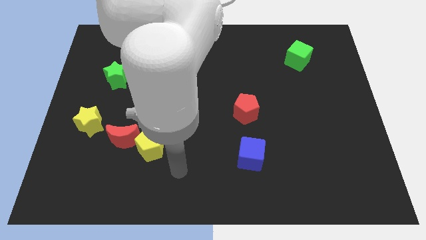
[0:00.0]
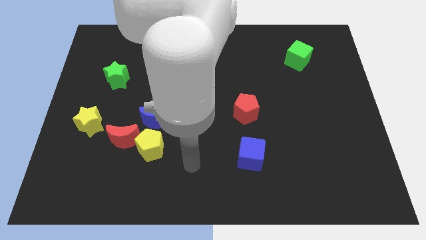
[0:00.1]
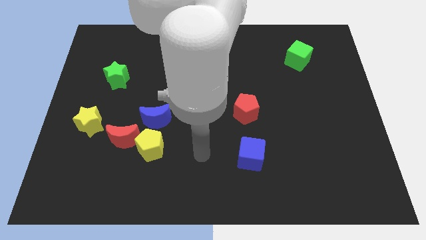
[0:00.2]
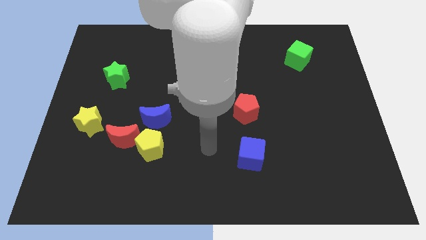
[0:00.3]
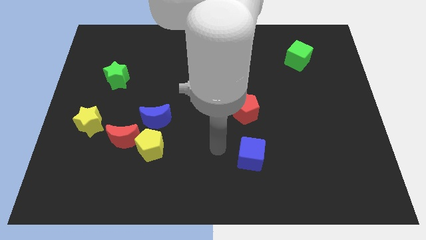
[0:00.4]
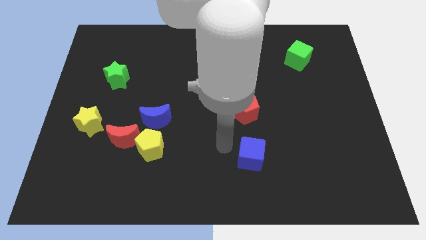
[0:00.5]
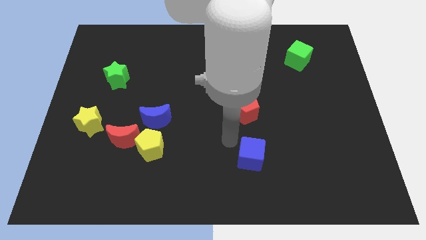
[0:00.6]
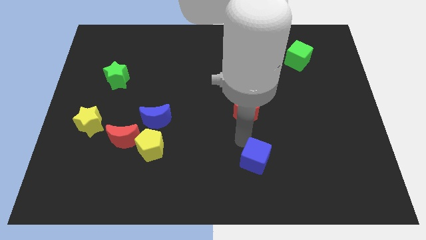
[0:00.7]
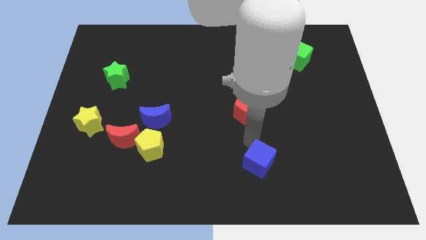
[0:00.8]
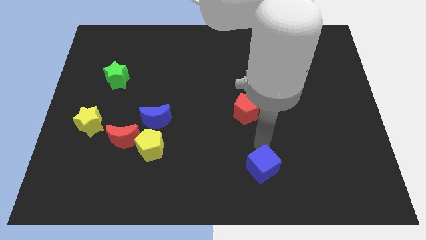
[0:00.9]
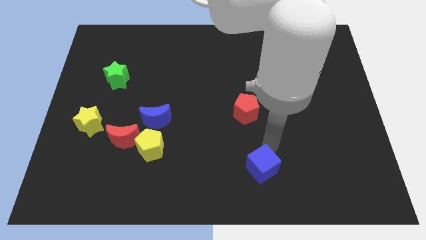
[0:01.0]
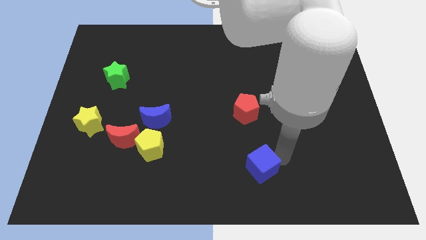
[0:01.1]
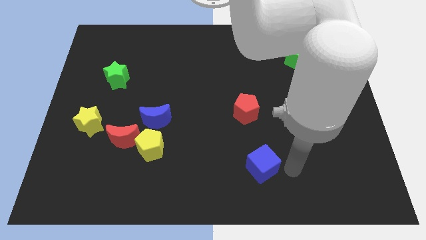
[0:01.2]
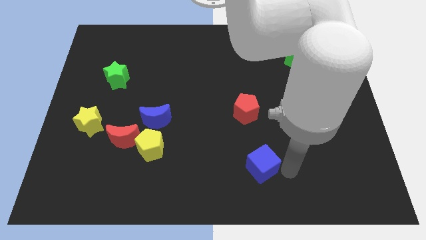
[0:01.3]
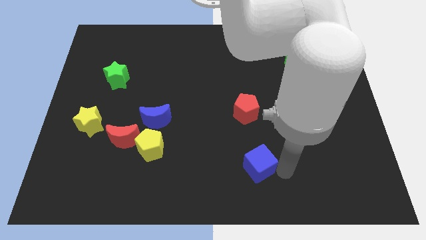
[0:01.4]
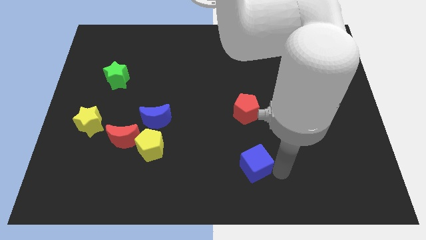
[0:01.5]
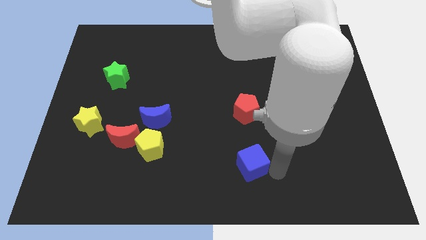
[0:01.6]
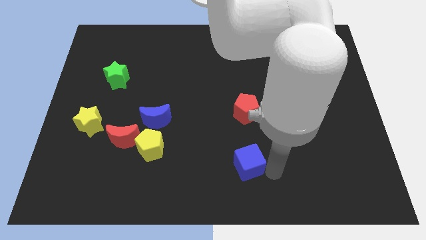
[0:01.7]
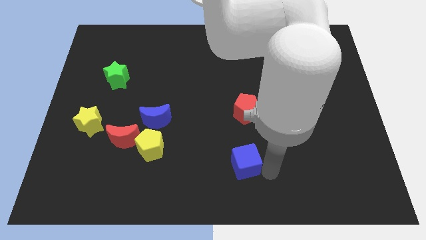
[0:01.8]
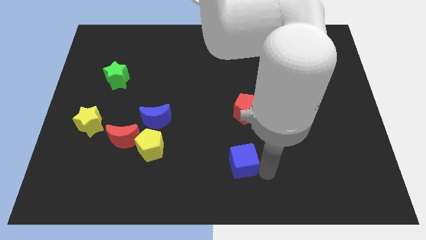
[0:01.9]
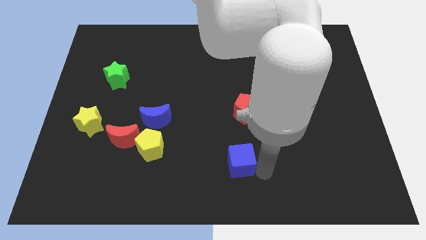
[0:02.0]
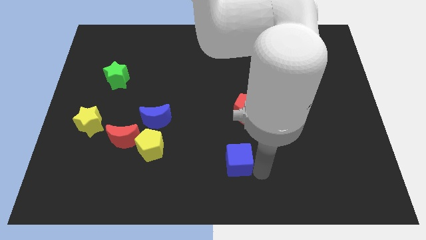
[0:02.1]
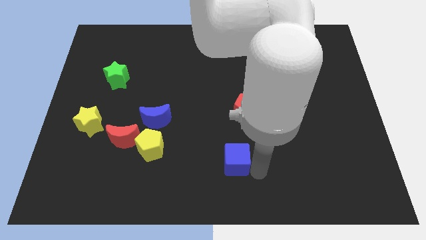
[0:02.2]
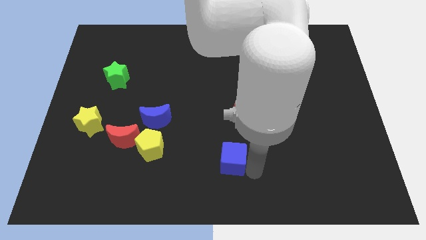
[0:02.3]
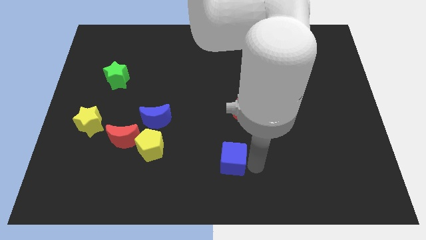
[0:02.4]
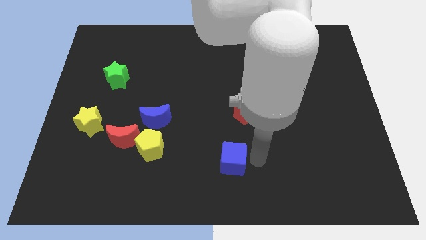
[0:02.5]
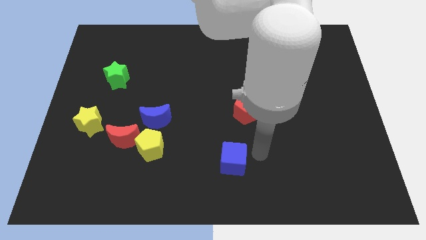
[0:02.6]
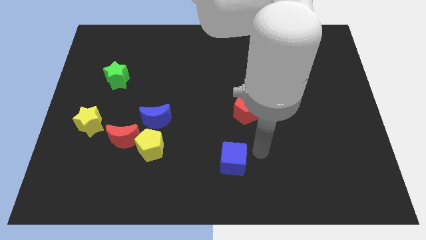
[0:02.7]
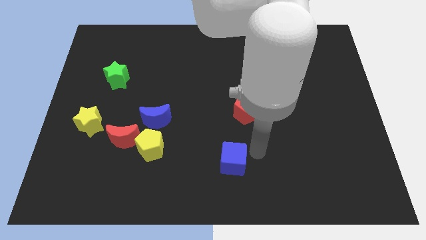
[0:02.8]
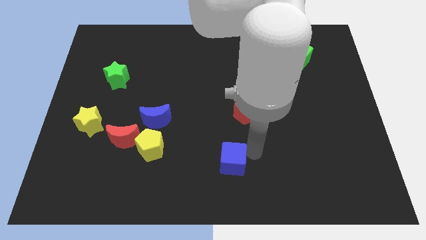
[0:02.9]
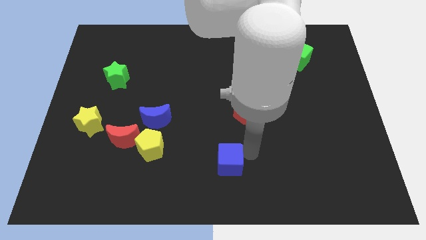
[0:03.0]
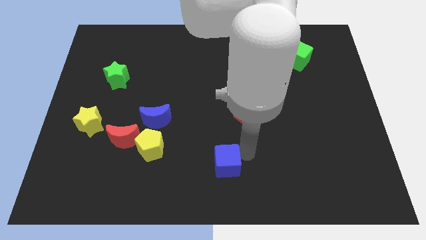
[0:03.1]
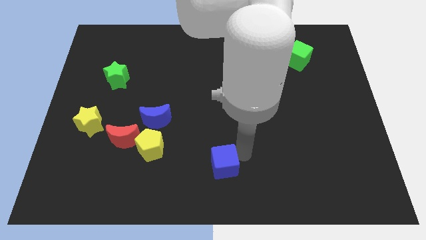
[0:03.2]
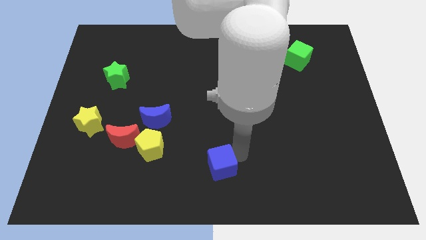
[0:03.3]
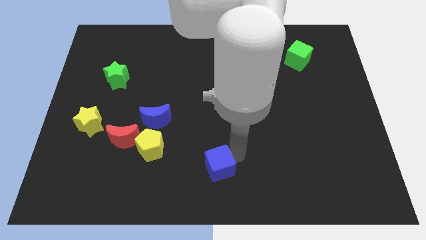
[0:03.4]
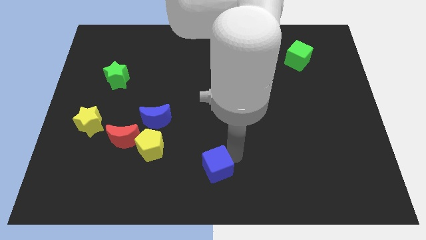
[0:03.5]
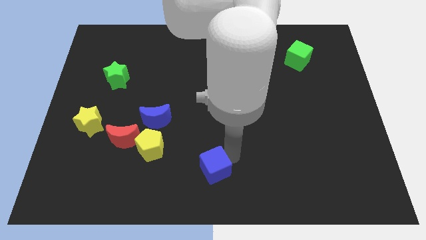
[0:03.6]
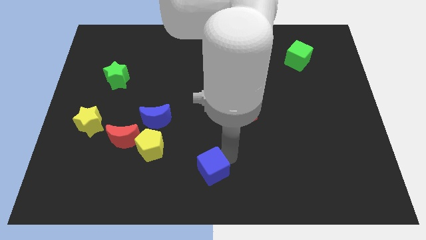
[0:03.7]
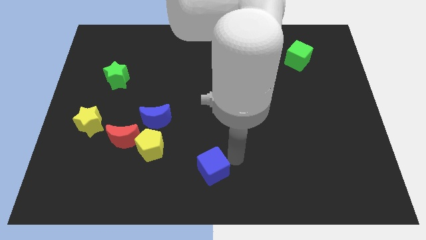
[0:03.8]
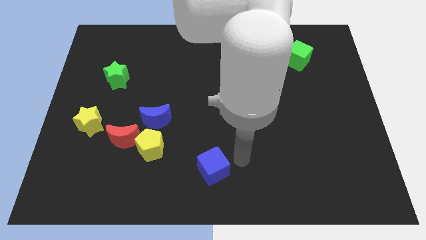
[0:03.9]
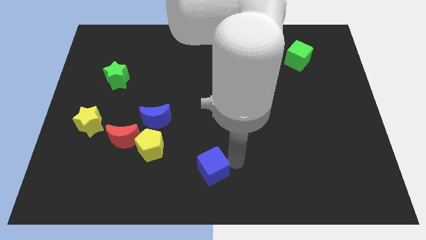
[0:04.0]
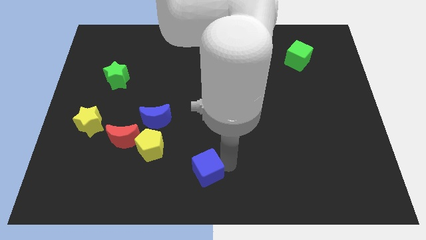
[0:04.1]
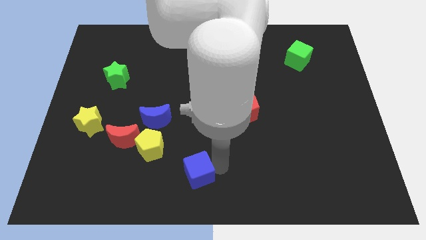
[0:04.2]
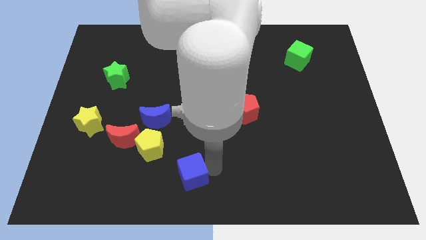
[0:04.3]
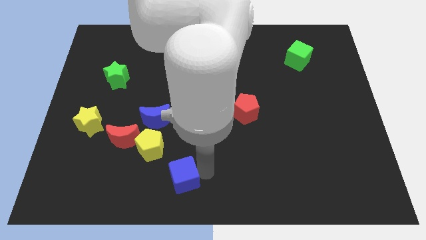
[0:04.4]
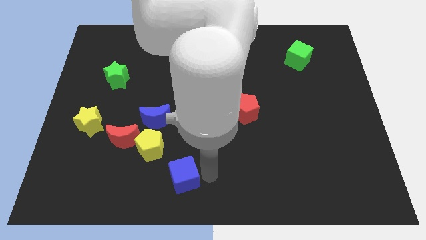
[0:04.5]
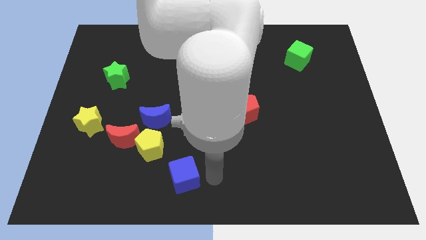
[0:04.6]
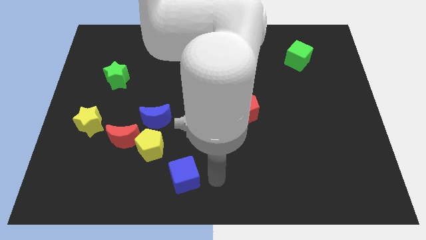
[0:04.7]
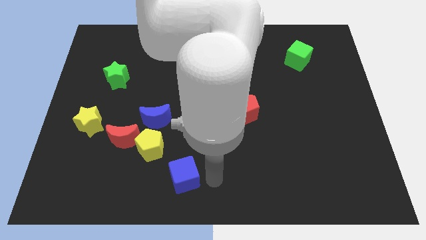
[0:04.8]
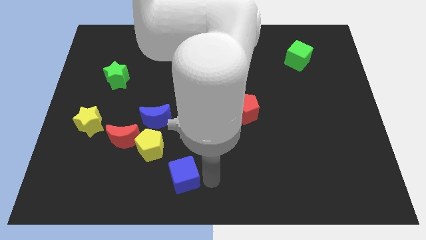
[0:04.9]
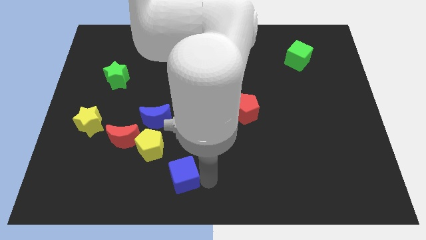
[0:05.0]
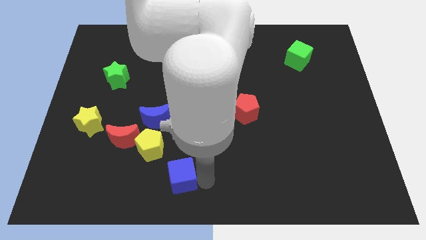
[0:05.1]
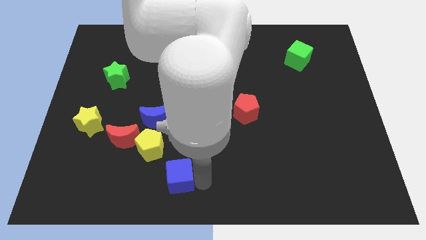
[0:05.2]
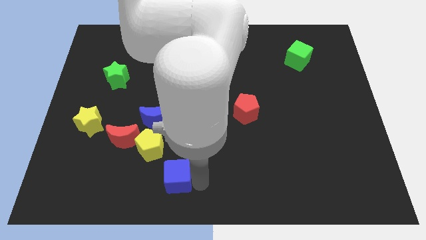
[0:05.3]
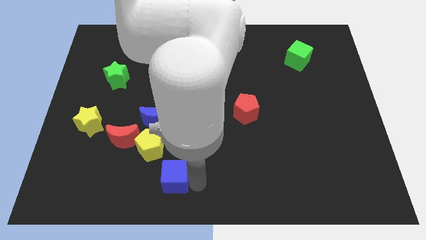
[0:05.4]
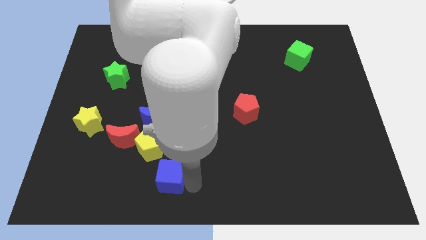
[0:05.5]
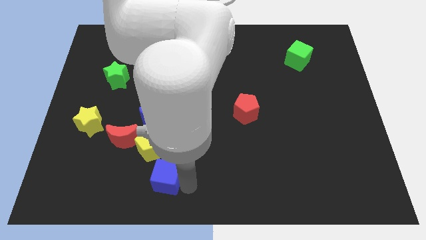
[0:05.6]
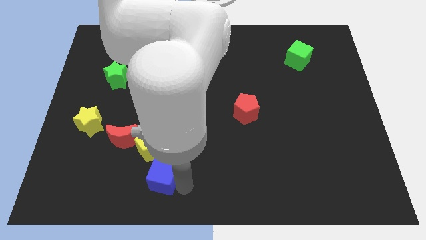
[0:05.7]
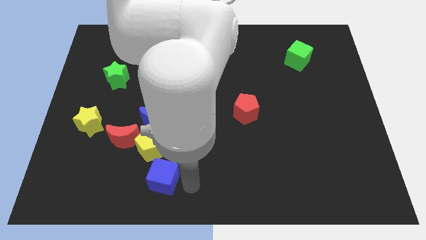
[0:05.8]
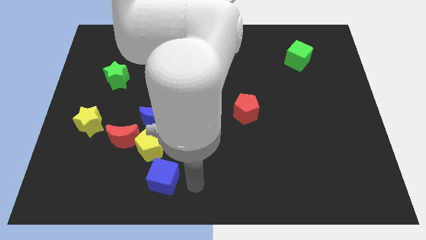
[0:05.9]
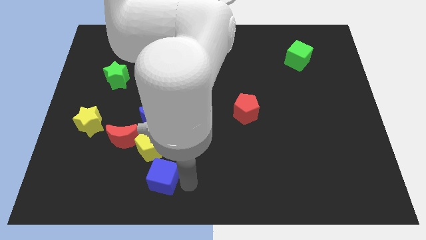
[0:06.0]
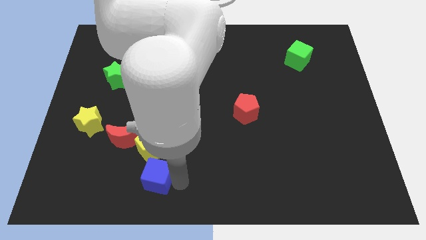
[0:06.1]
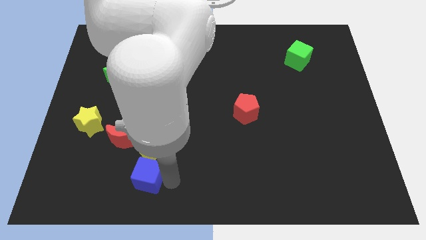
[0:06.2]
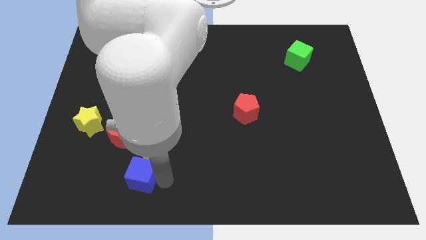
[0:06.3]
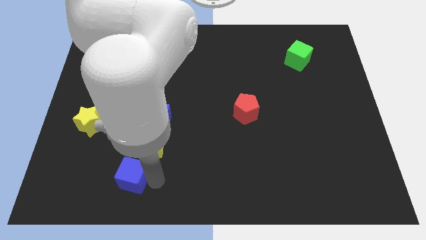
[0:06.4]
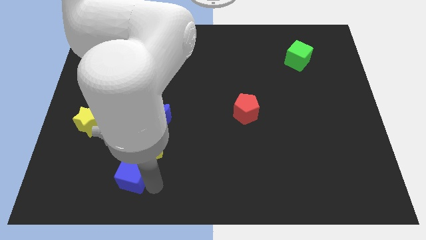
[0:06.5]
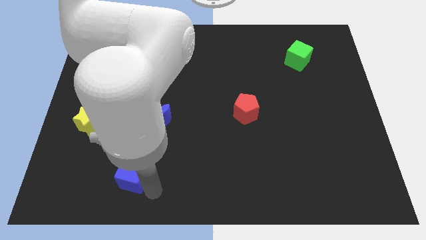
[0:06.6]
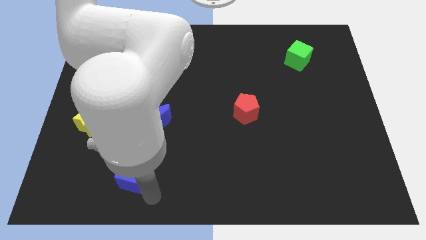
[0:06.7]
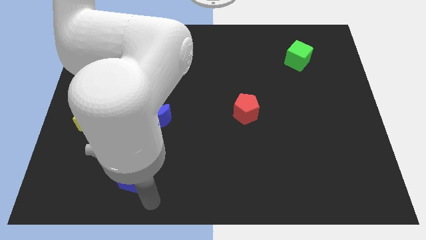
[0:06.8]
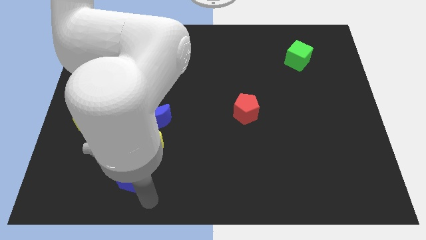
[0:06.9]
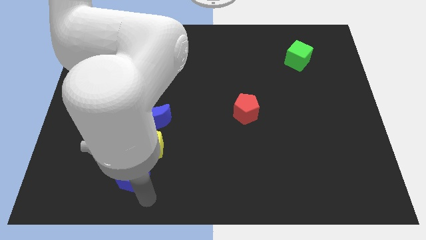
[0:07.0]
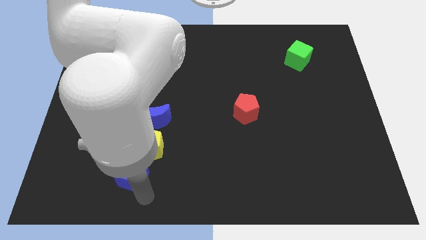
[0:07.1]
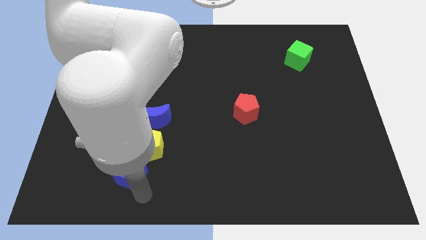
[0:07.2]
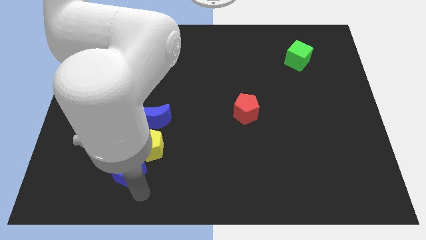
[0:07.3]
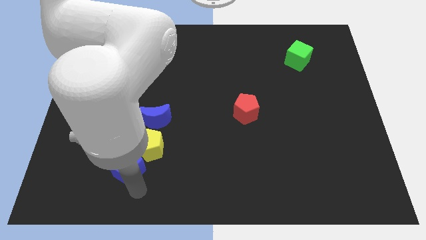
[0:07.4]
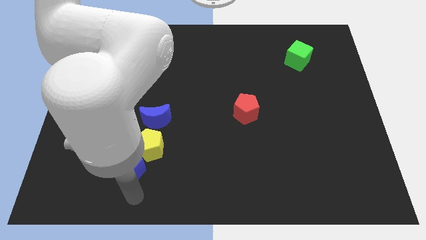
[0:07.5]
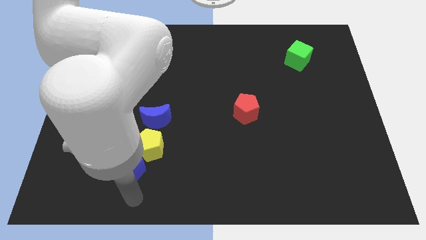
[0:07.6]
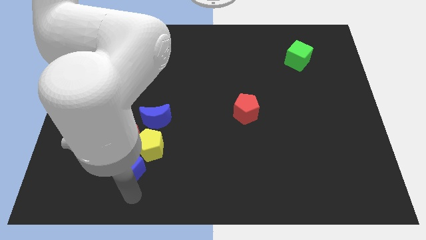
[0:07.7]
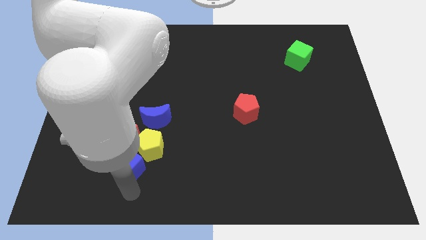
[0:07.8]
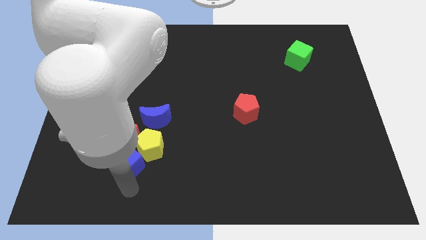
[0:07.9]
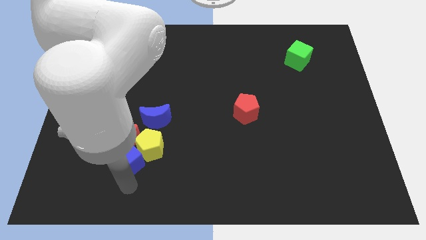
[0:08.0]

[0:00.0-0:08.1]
put the blue cube next to the red moon
